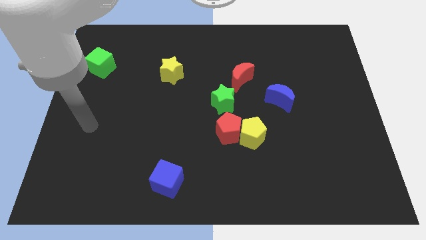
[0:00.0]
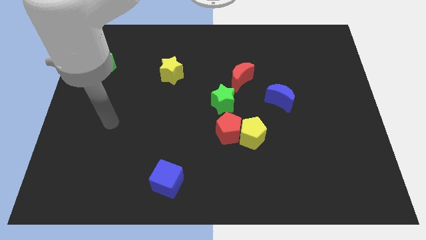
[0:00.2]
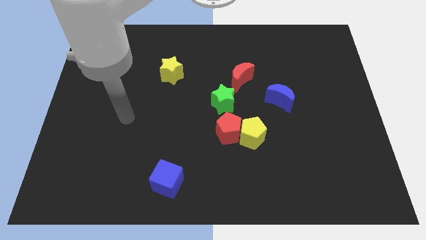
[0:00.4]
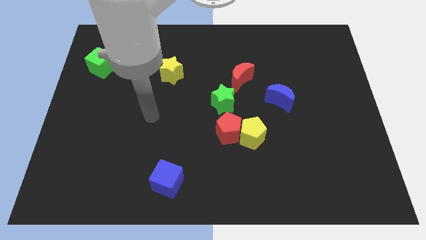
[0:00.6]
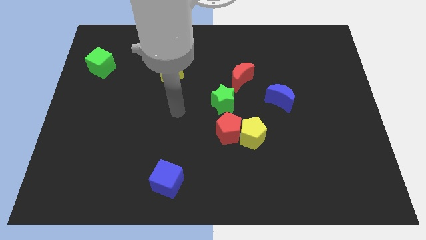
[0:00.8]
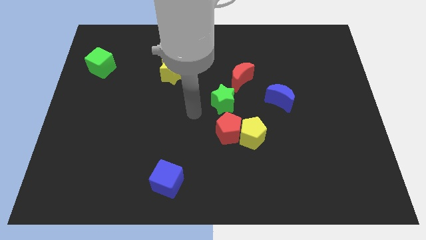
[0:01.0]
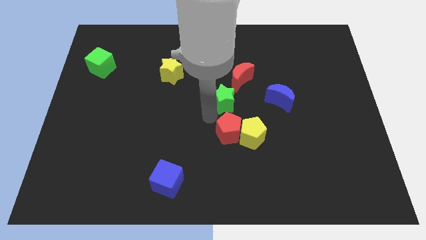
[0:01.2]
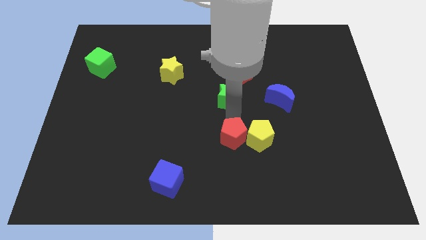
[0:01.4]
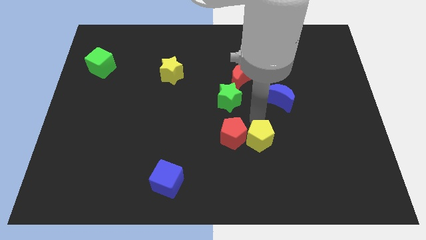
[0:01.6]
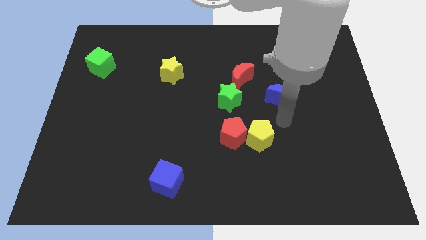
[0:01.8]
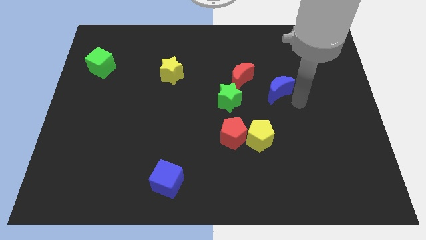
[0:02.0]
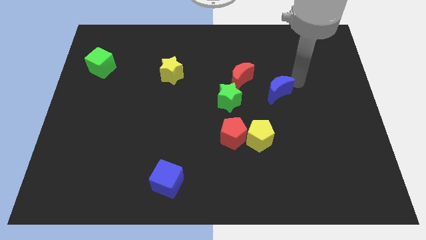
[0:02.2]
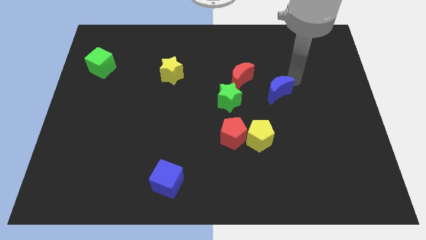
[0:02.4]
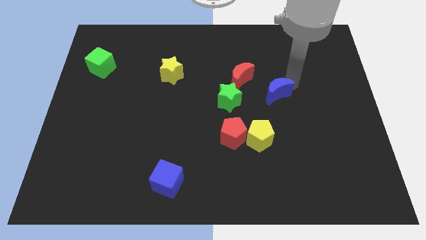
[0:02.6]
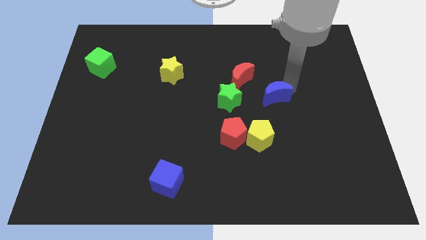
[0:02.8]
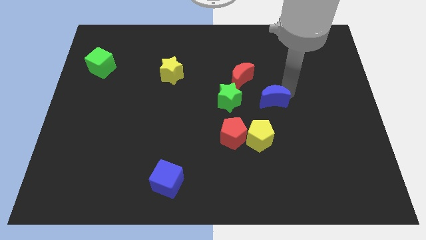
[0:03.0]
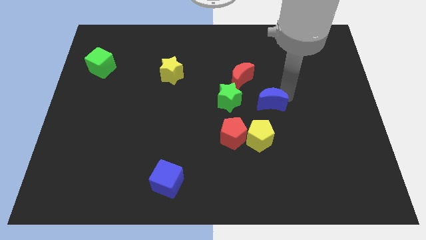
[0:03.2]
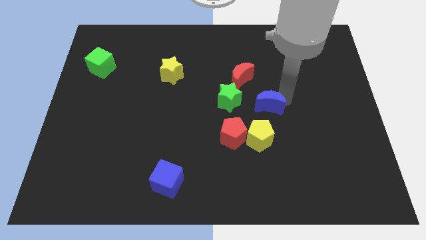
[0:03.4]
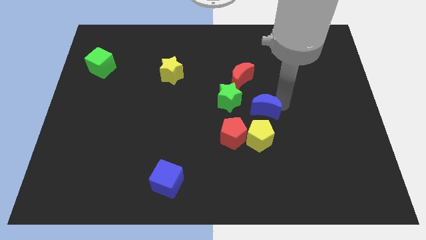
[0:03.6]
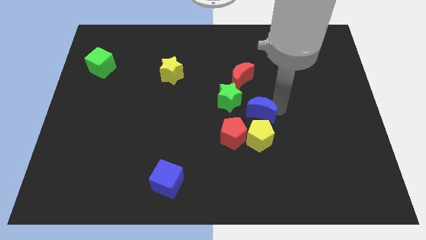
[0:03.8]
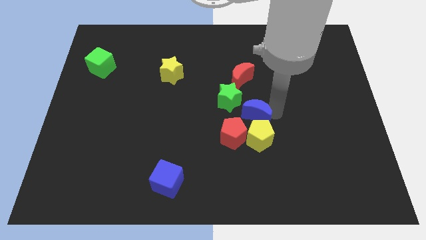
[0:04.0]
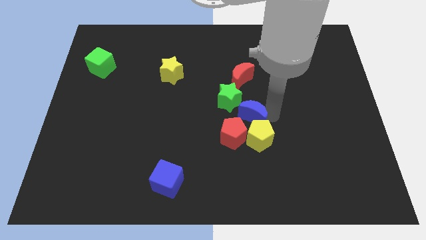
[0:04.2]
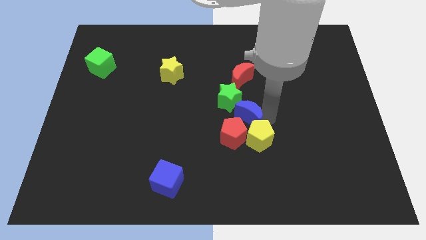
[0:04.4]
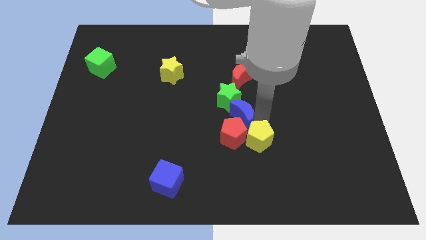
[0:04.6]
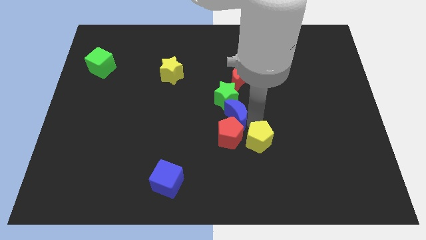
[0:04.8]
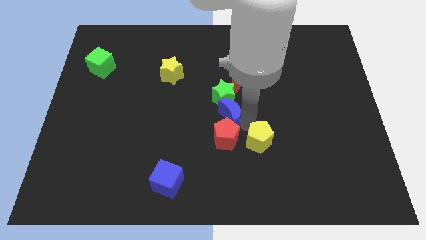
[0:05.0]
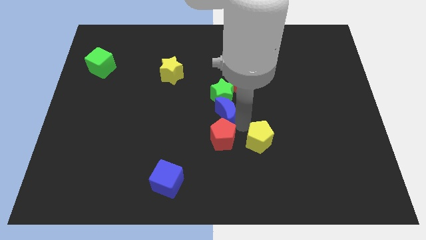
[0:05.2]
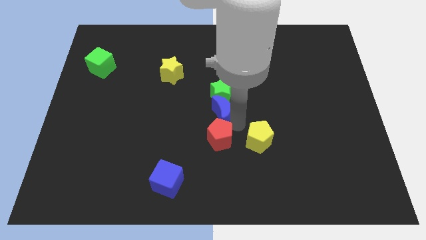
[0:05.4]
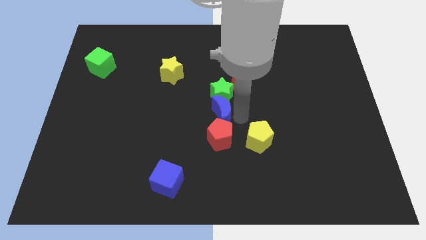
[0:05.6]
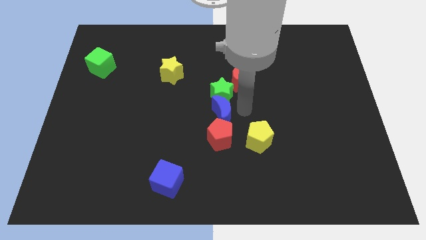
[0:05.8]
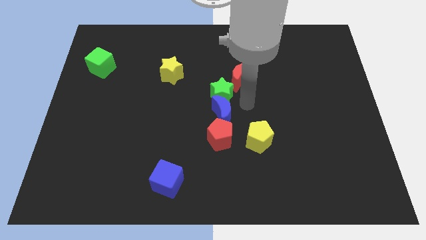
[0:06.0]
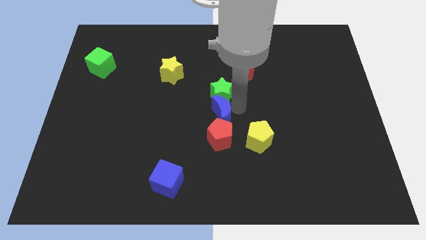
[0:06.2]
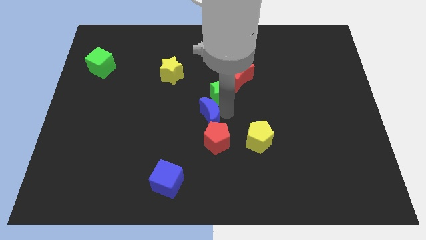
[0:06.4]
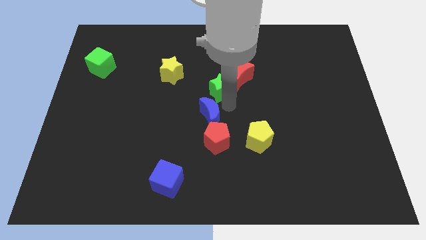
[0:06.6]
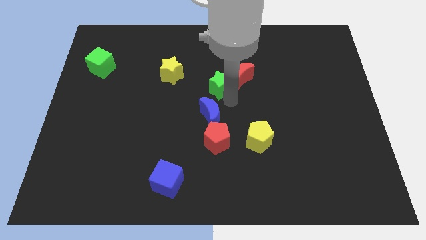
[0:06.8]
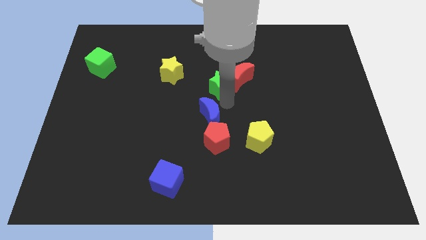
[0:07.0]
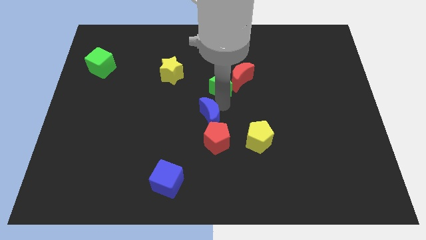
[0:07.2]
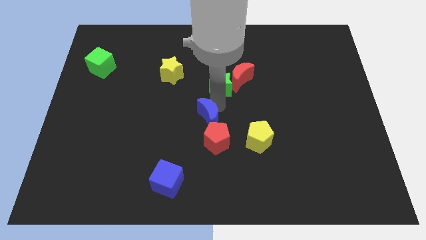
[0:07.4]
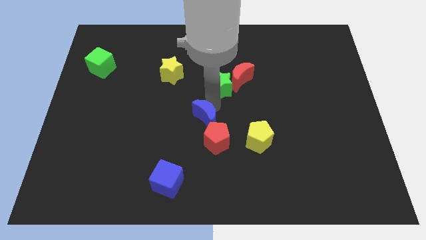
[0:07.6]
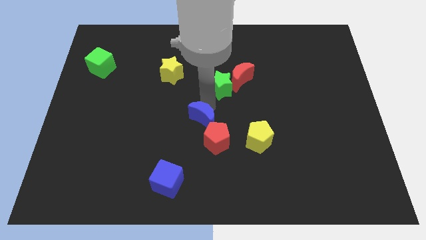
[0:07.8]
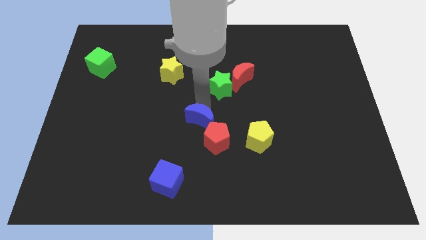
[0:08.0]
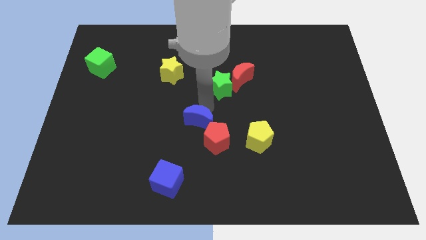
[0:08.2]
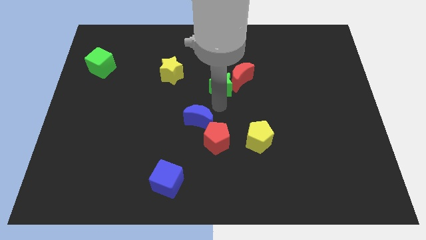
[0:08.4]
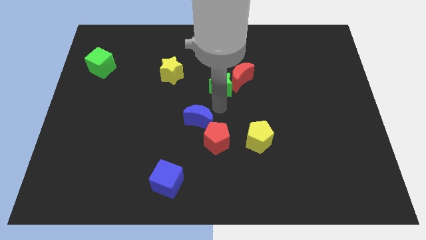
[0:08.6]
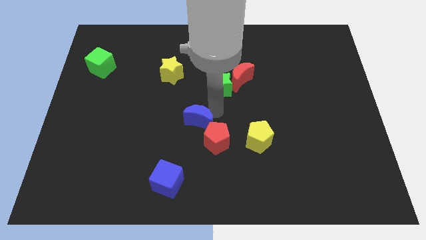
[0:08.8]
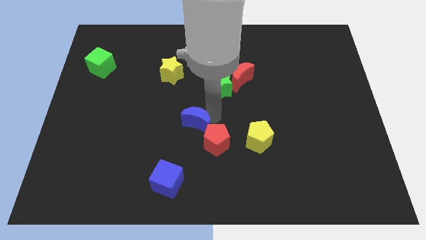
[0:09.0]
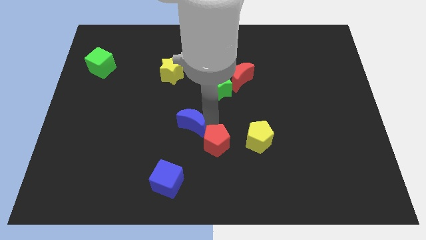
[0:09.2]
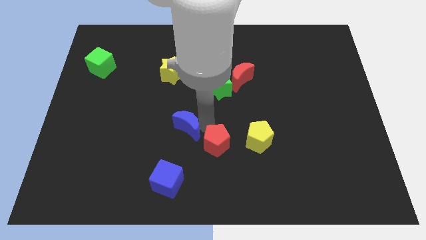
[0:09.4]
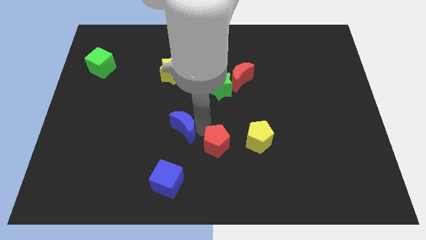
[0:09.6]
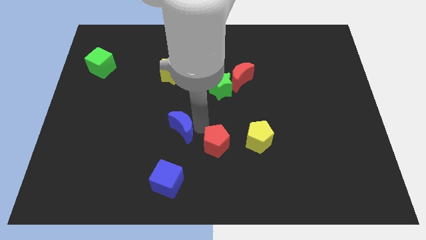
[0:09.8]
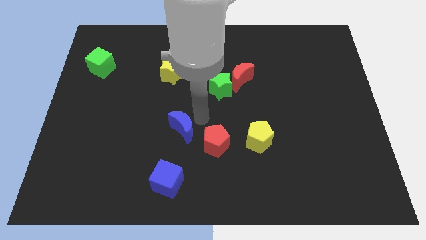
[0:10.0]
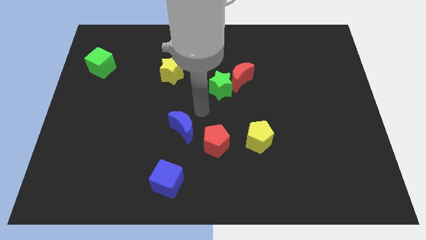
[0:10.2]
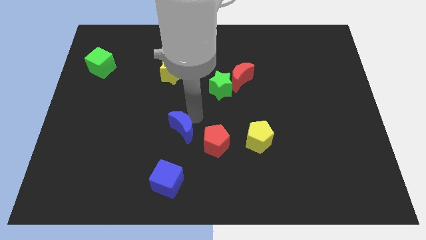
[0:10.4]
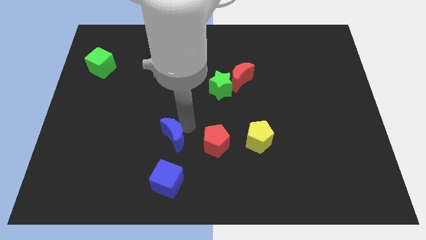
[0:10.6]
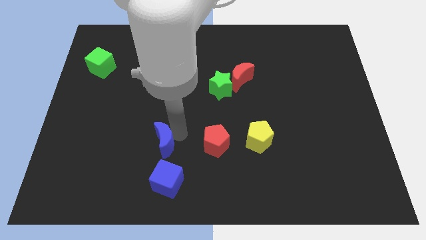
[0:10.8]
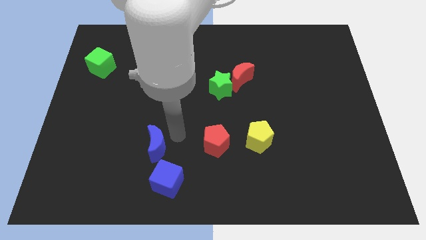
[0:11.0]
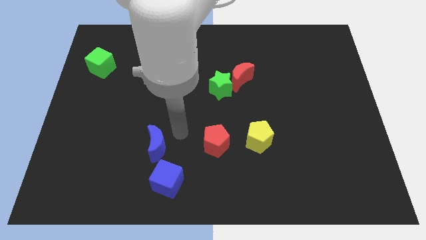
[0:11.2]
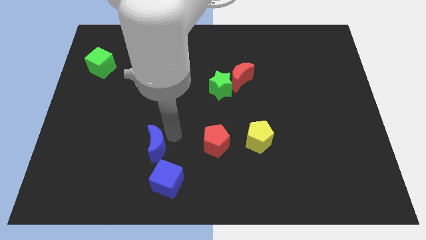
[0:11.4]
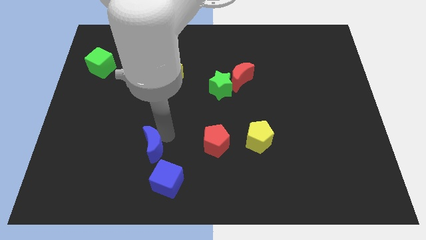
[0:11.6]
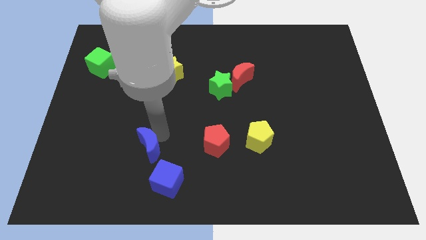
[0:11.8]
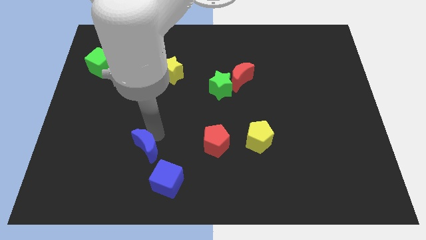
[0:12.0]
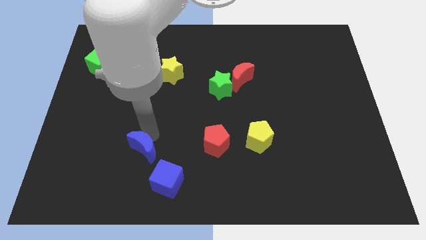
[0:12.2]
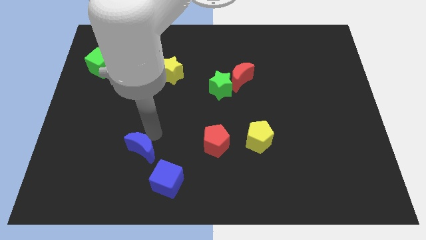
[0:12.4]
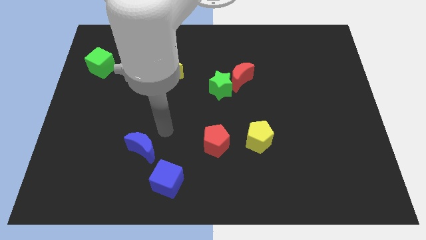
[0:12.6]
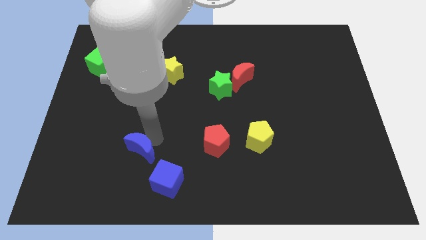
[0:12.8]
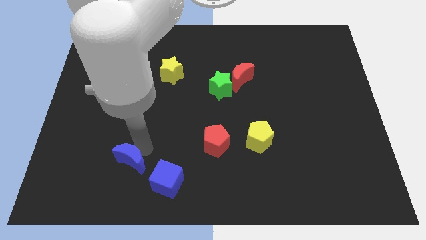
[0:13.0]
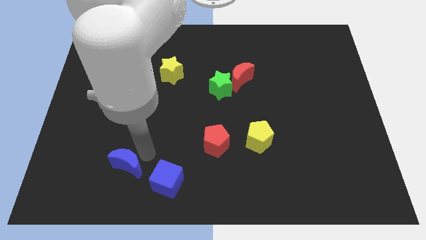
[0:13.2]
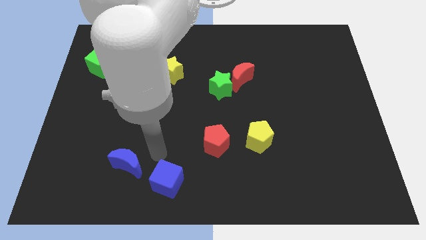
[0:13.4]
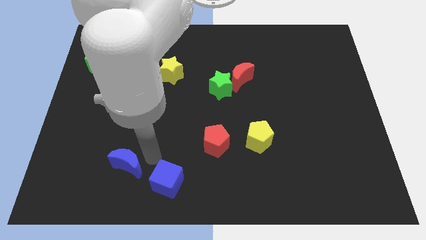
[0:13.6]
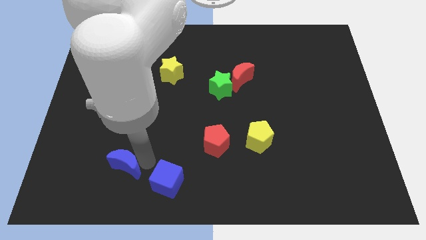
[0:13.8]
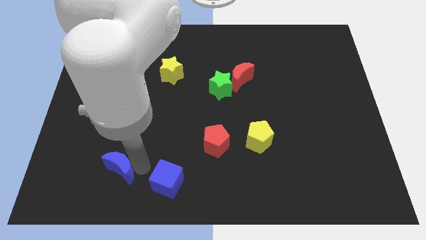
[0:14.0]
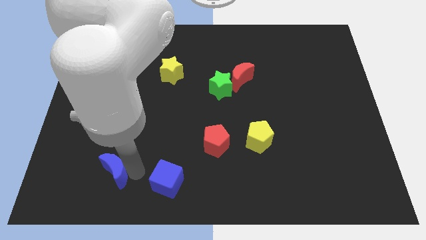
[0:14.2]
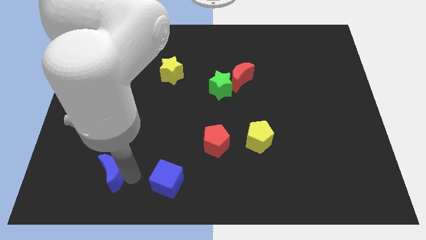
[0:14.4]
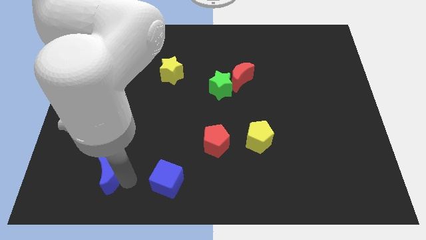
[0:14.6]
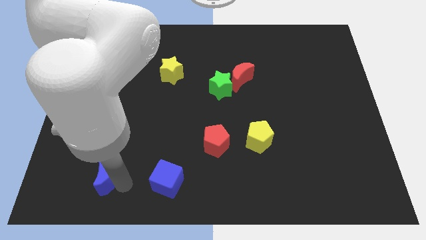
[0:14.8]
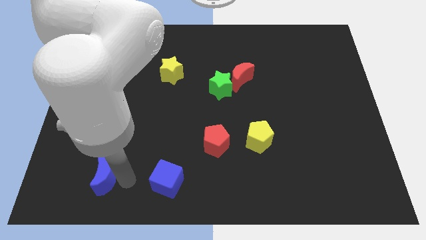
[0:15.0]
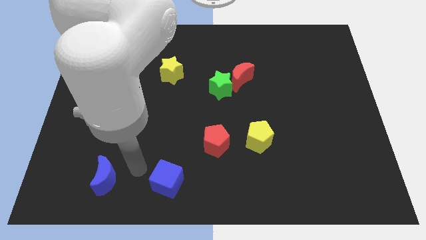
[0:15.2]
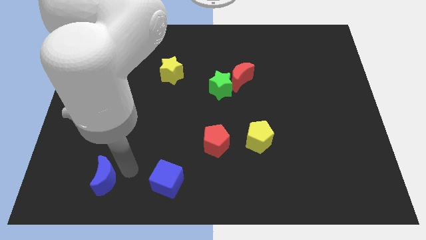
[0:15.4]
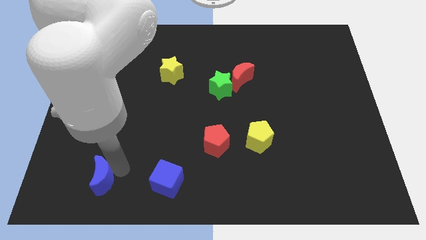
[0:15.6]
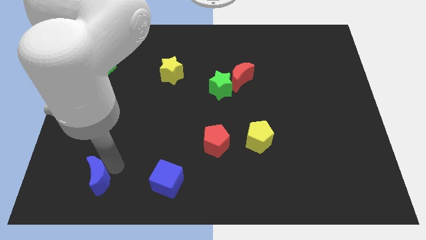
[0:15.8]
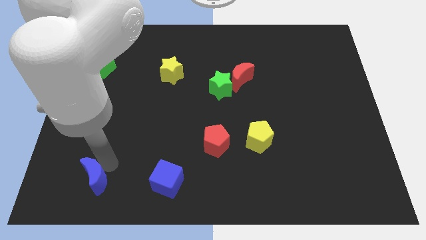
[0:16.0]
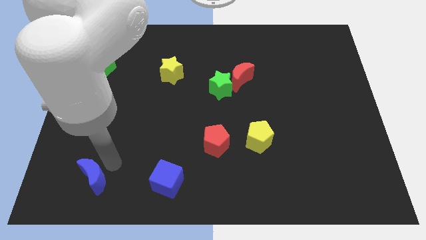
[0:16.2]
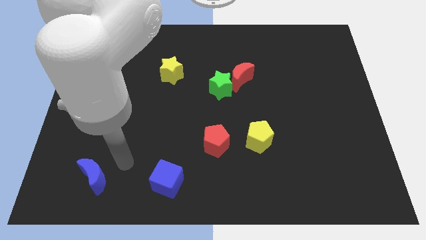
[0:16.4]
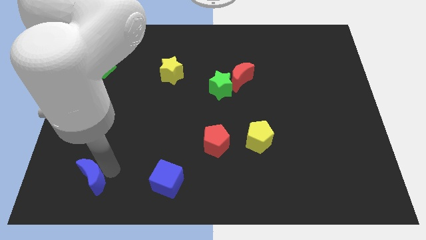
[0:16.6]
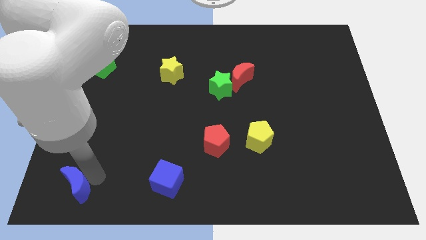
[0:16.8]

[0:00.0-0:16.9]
put the blue moon to the bottom left corner
